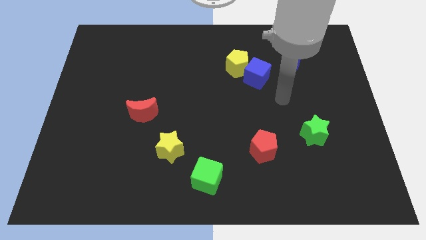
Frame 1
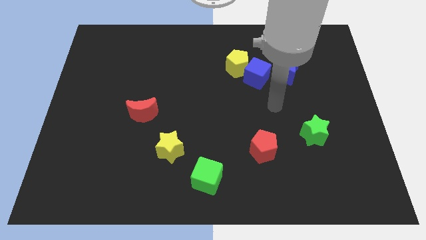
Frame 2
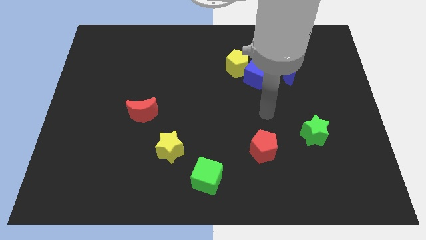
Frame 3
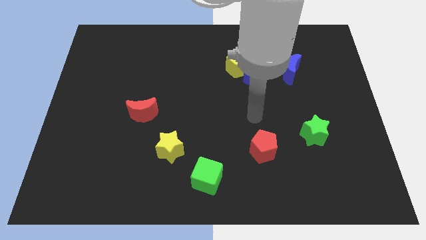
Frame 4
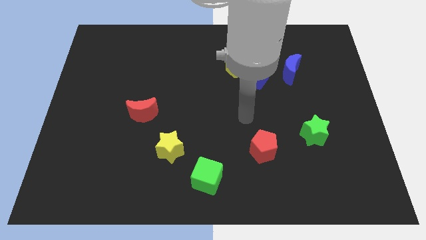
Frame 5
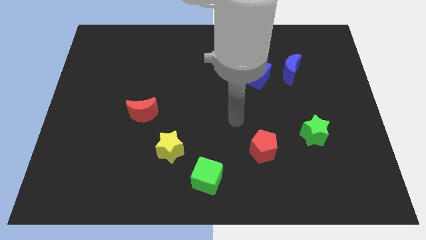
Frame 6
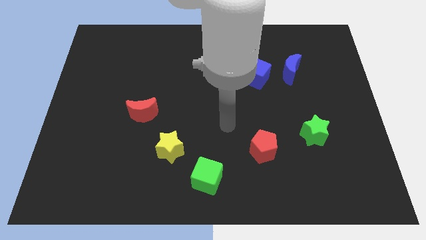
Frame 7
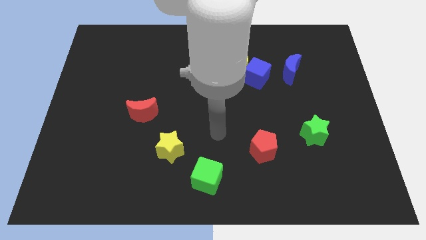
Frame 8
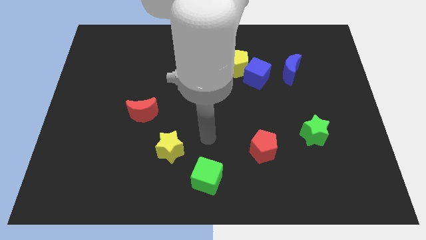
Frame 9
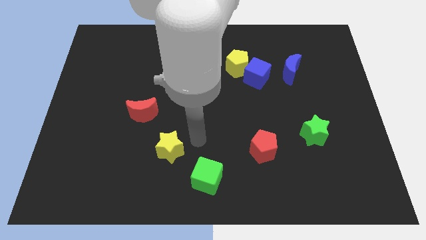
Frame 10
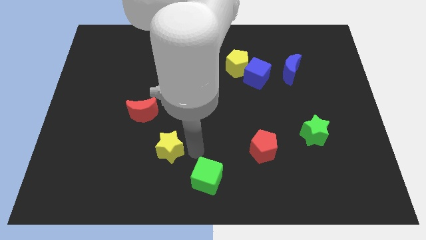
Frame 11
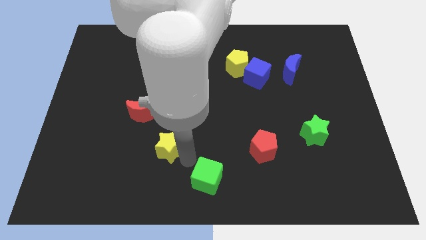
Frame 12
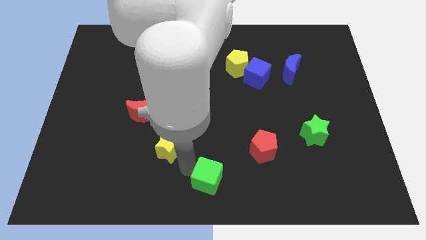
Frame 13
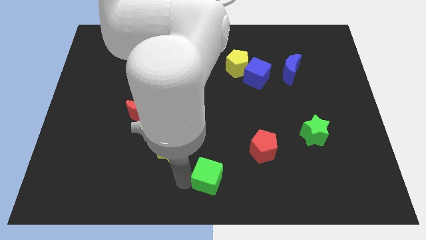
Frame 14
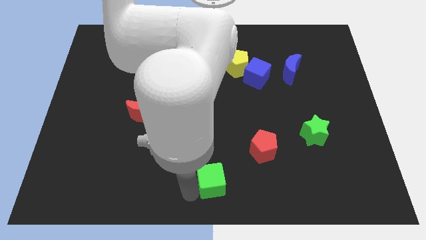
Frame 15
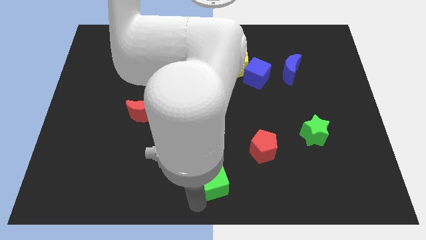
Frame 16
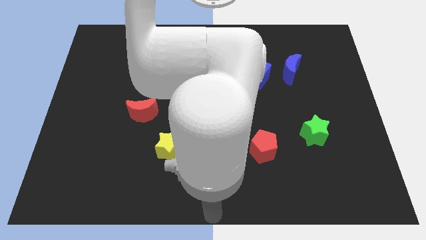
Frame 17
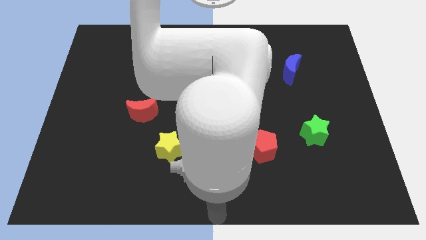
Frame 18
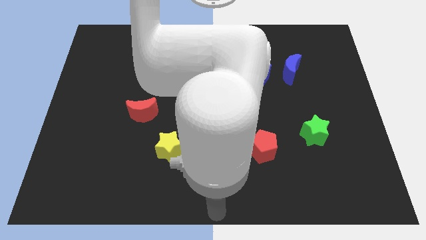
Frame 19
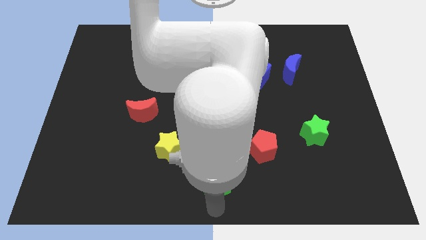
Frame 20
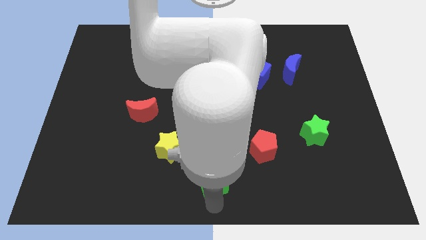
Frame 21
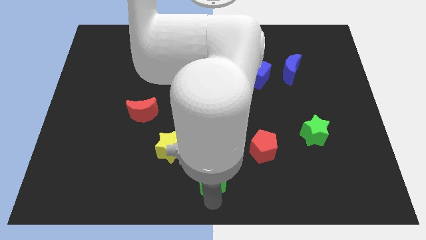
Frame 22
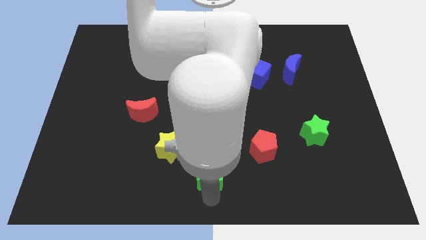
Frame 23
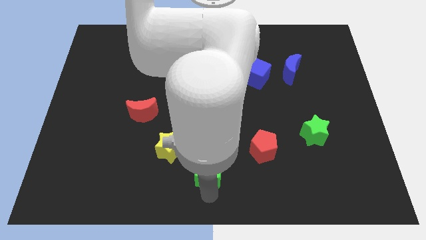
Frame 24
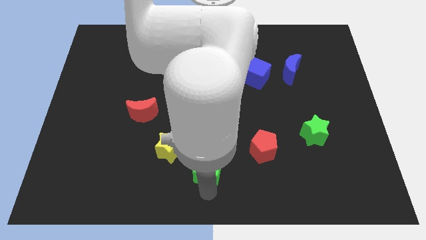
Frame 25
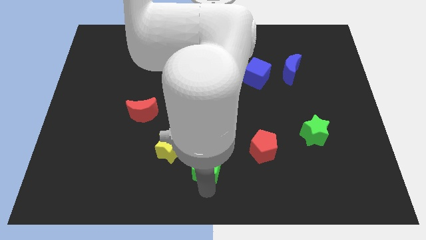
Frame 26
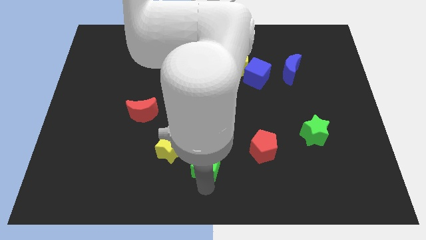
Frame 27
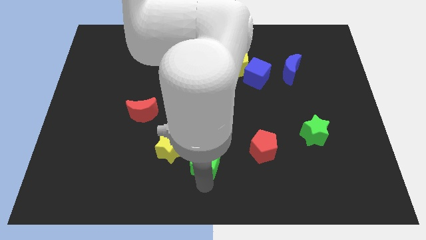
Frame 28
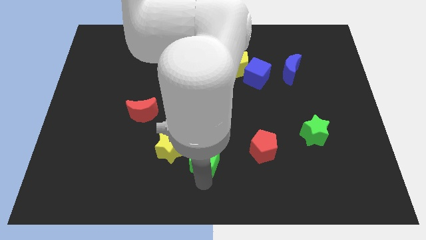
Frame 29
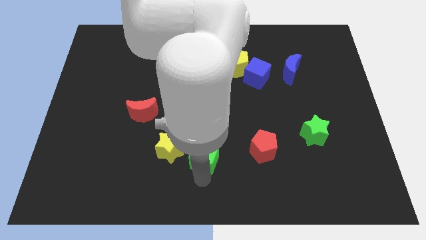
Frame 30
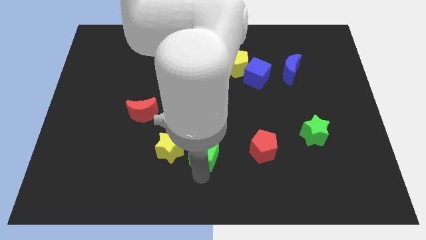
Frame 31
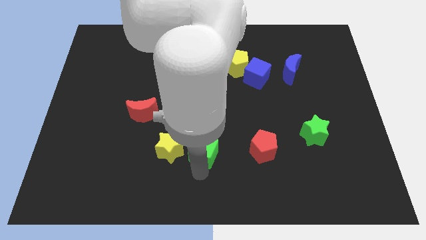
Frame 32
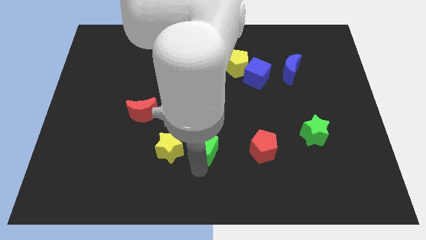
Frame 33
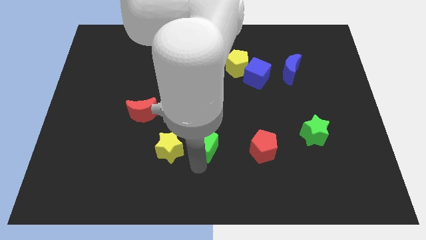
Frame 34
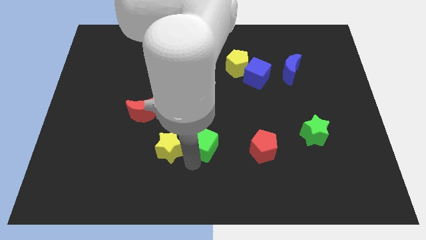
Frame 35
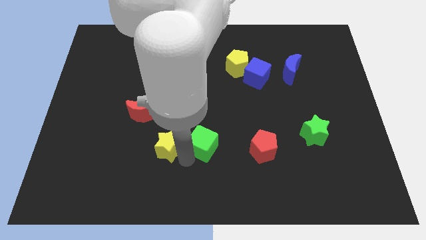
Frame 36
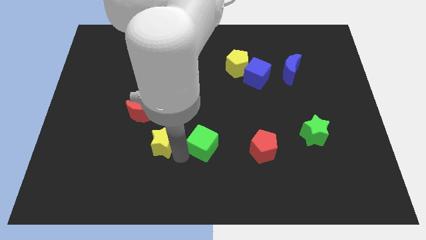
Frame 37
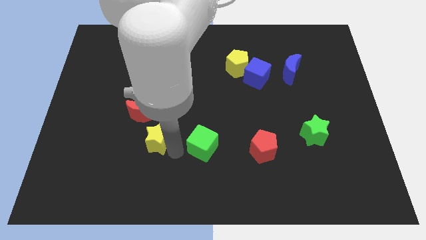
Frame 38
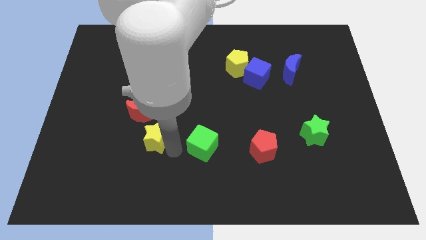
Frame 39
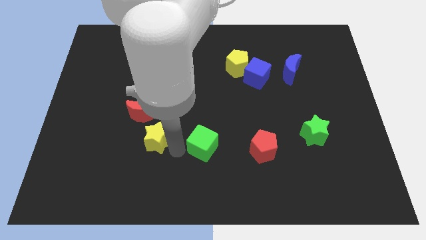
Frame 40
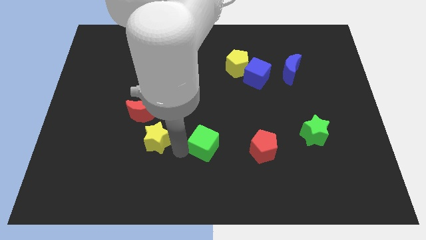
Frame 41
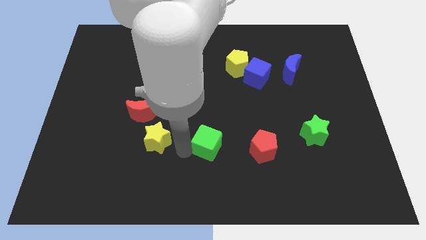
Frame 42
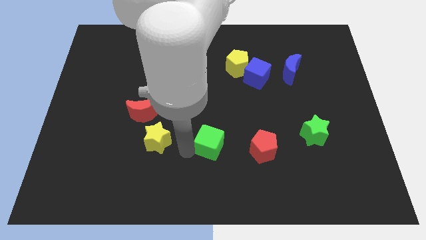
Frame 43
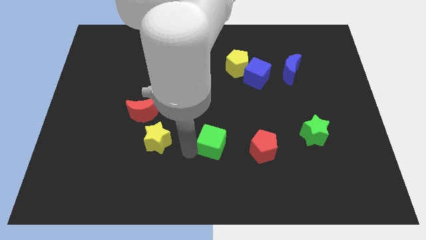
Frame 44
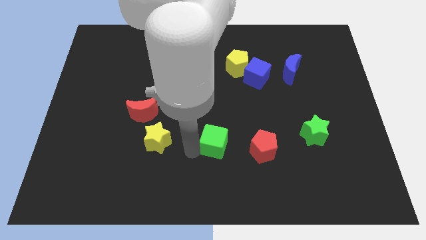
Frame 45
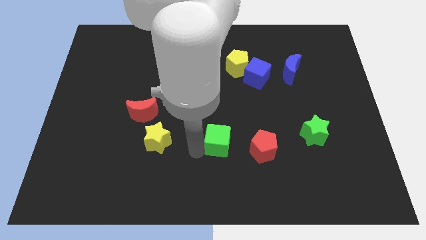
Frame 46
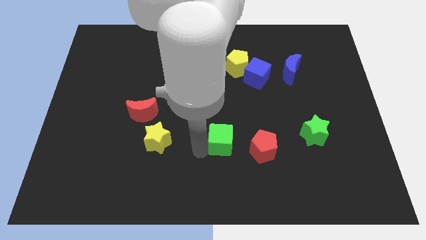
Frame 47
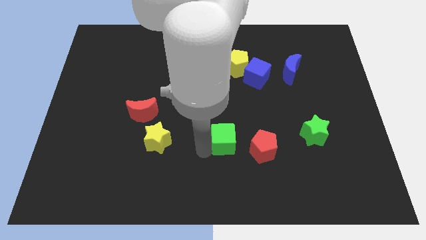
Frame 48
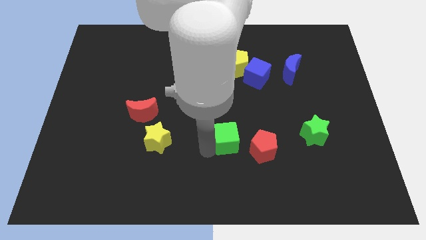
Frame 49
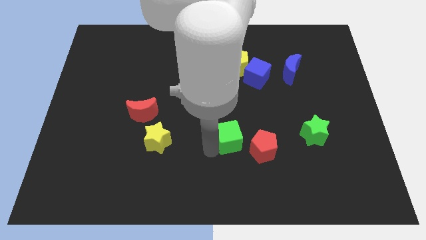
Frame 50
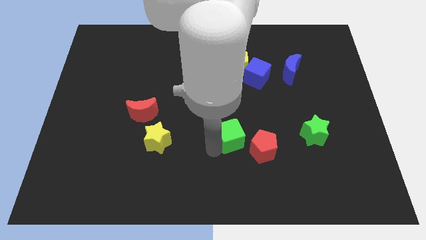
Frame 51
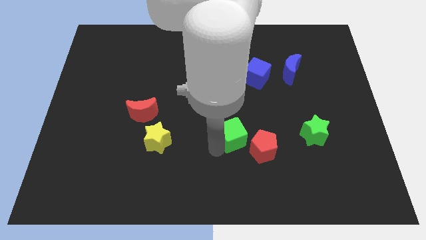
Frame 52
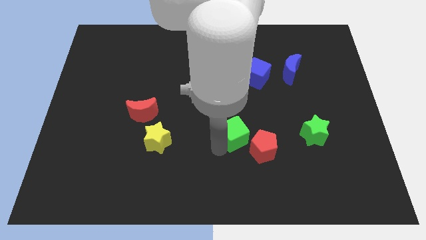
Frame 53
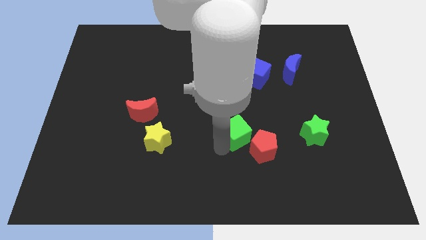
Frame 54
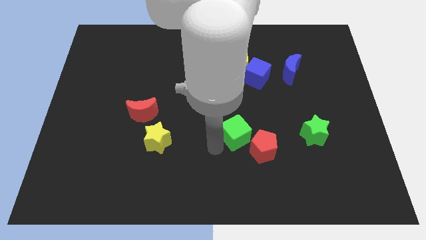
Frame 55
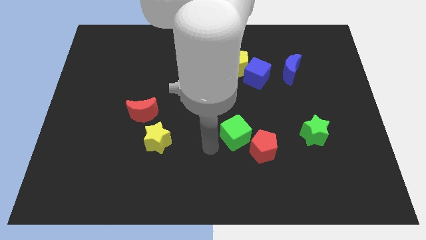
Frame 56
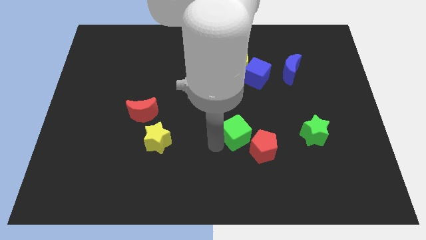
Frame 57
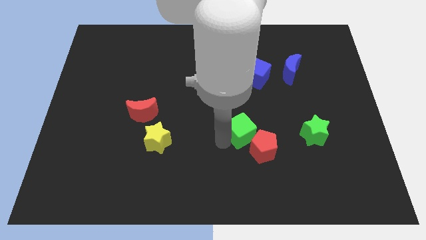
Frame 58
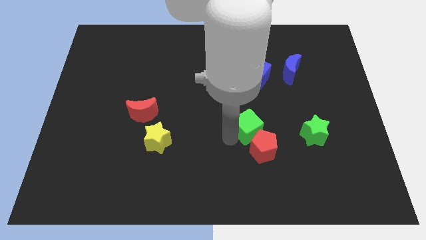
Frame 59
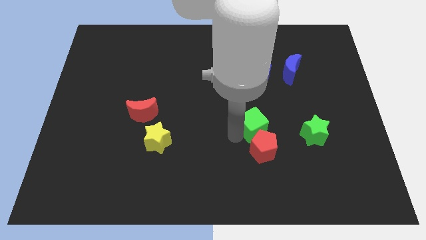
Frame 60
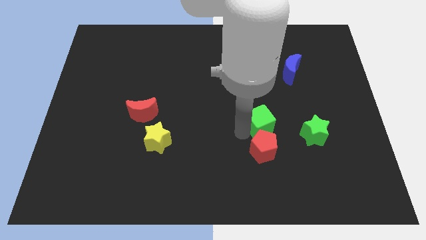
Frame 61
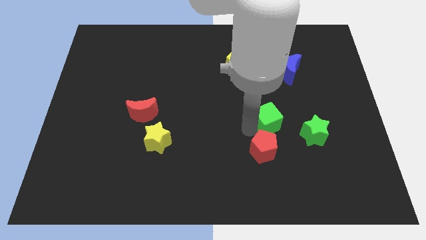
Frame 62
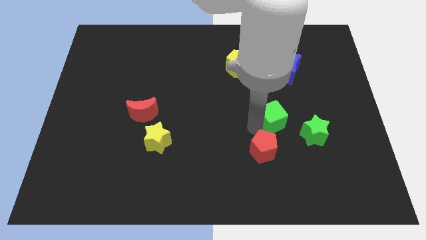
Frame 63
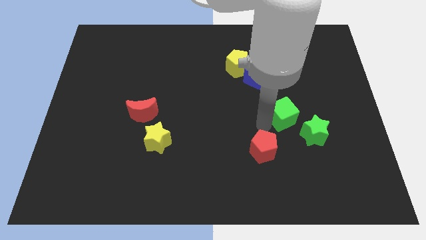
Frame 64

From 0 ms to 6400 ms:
move the green cube to the bottom of the blue moon

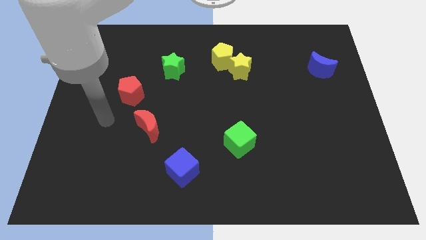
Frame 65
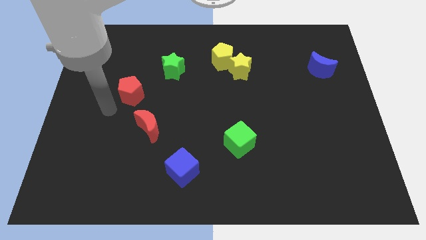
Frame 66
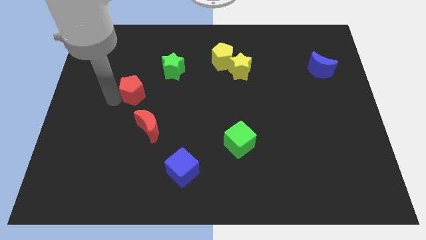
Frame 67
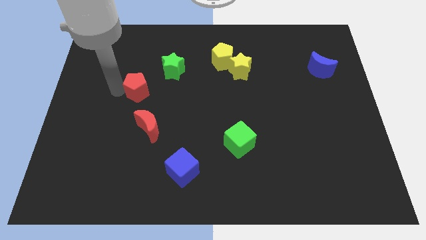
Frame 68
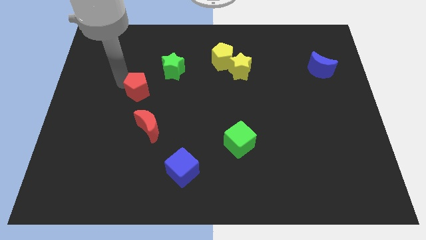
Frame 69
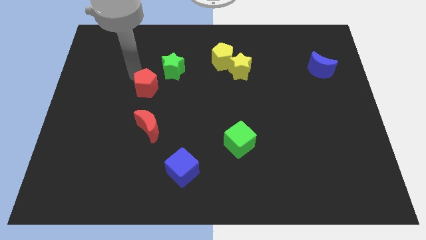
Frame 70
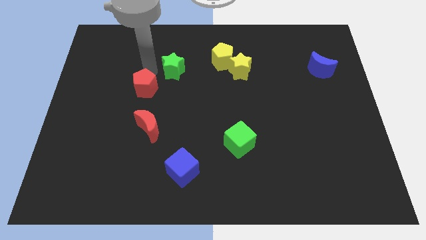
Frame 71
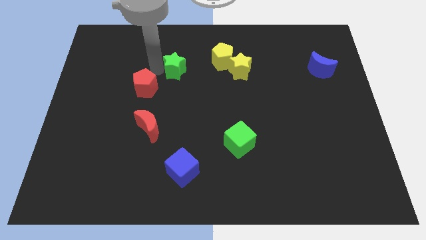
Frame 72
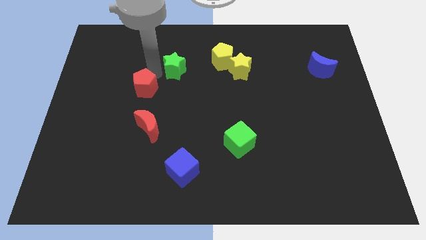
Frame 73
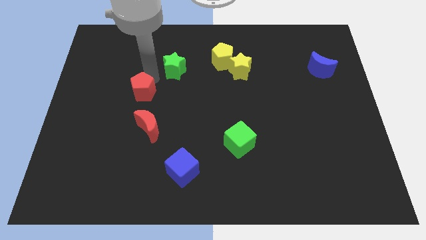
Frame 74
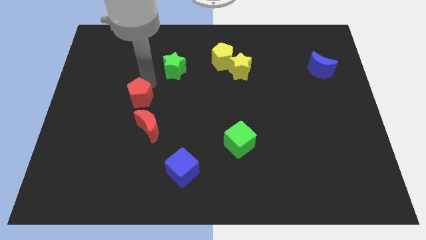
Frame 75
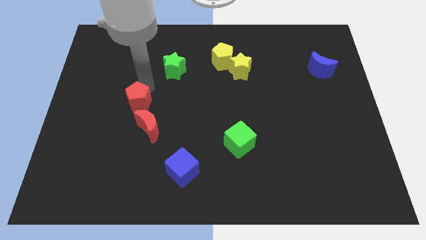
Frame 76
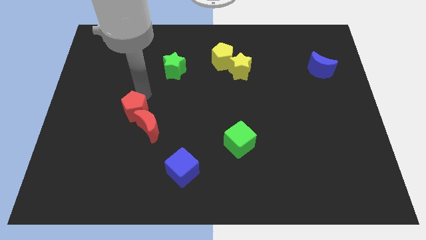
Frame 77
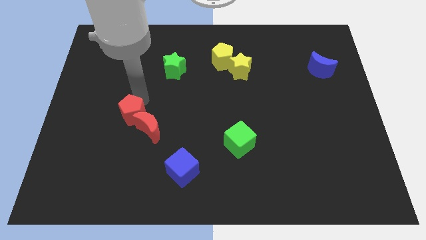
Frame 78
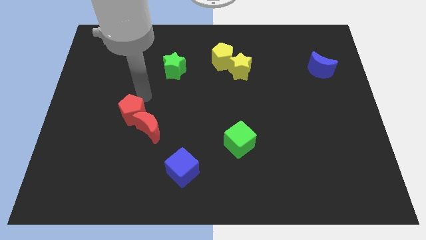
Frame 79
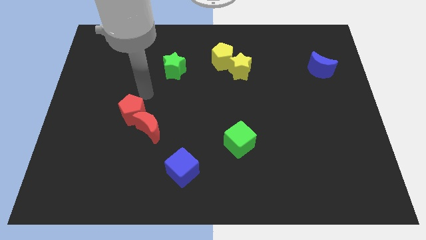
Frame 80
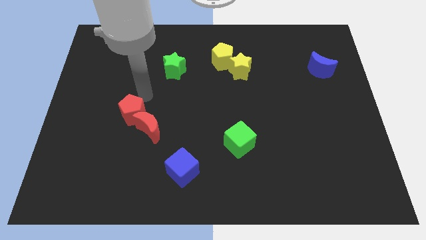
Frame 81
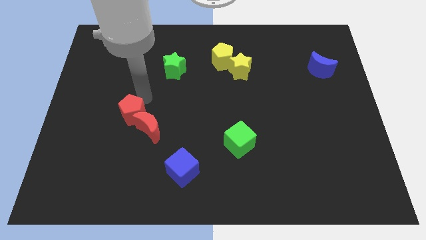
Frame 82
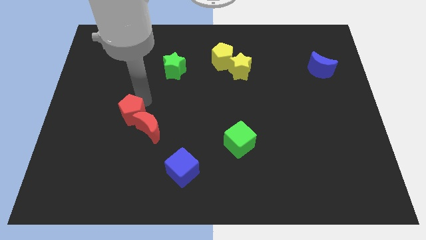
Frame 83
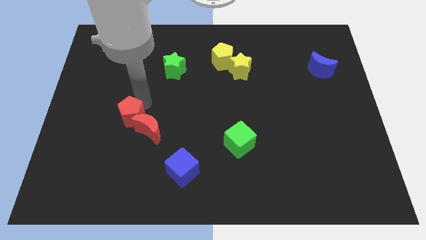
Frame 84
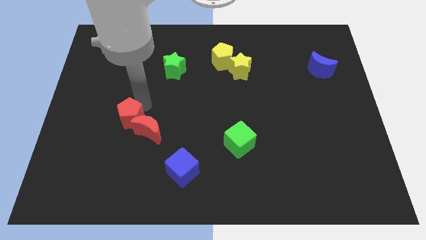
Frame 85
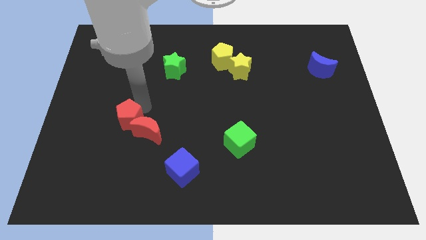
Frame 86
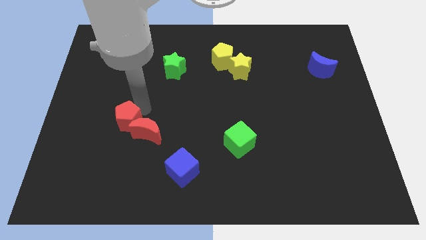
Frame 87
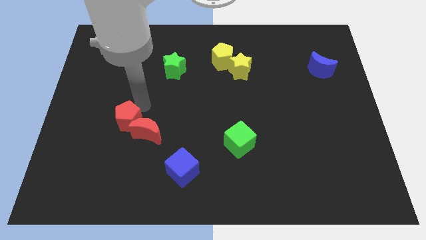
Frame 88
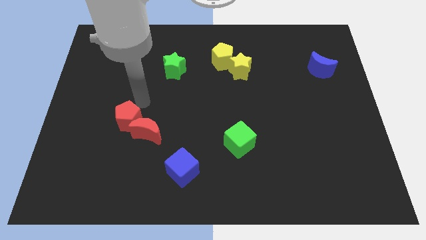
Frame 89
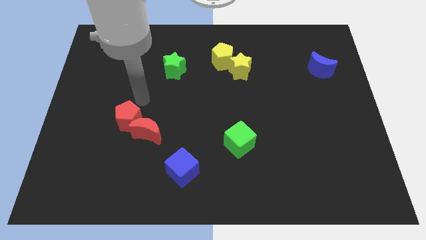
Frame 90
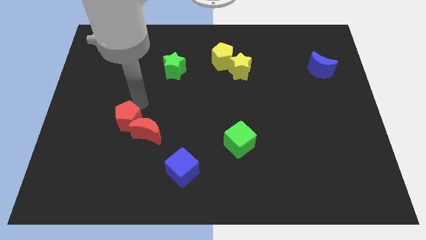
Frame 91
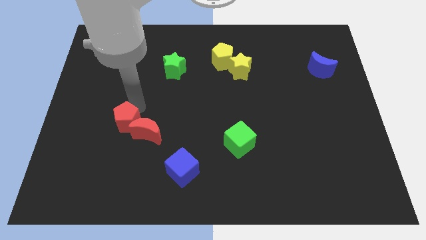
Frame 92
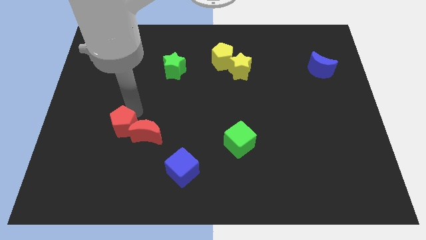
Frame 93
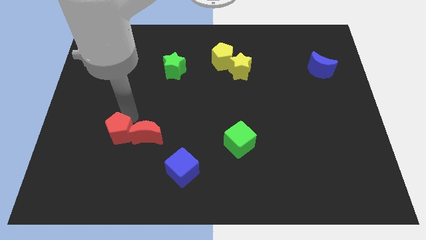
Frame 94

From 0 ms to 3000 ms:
push the red pentagon diagonally down and to the left of the red moon
